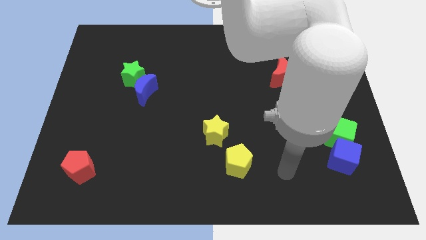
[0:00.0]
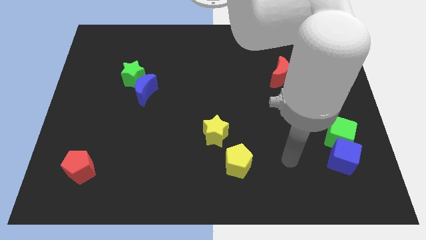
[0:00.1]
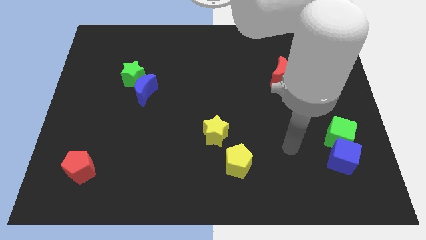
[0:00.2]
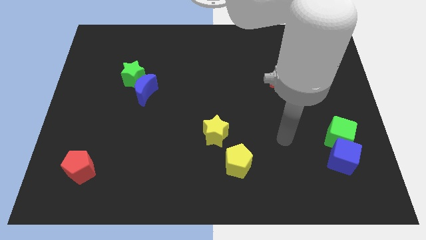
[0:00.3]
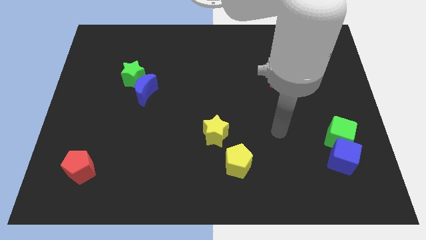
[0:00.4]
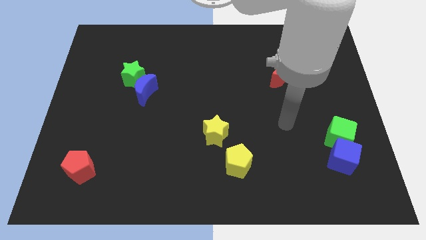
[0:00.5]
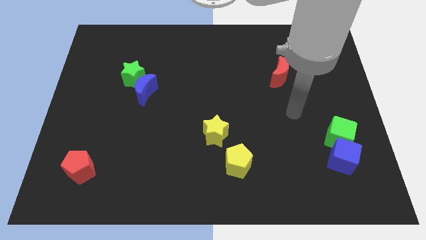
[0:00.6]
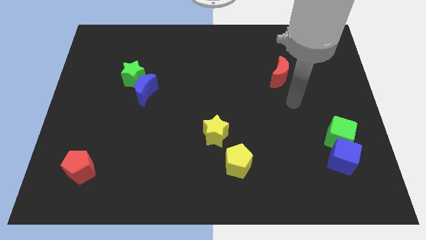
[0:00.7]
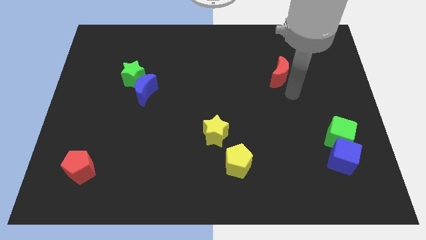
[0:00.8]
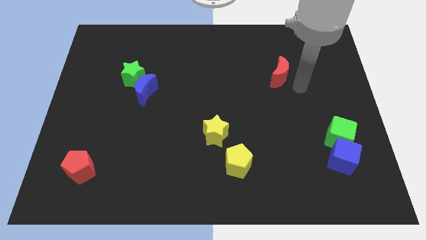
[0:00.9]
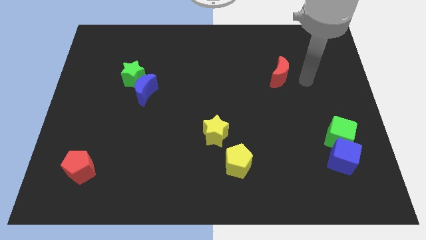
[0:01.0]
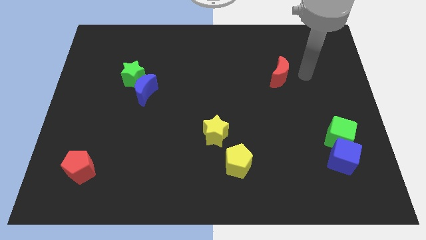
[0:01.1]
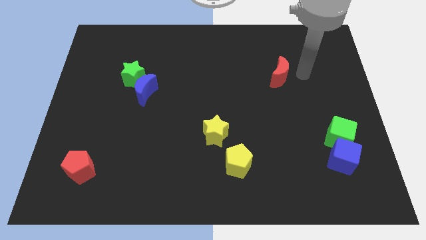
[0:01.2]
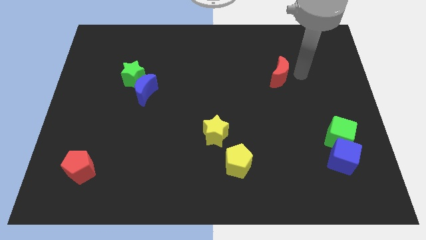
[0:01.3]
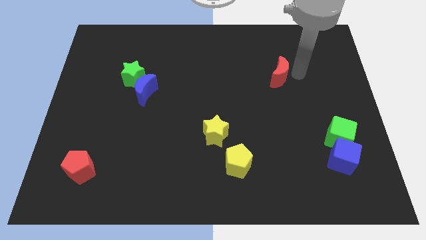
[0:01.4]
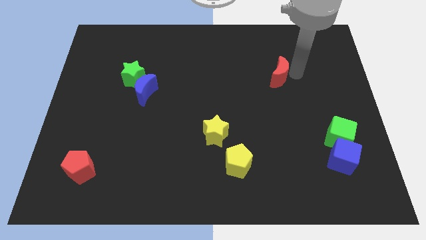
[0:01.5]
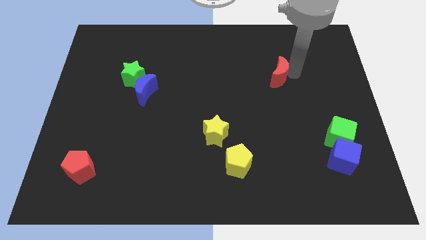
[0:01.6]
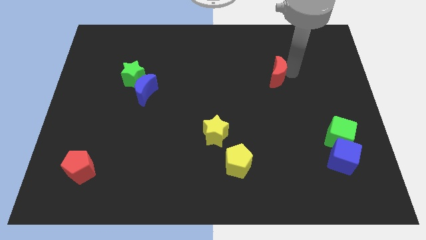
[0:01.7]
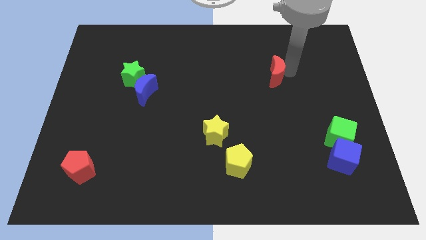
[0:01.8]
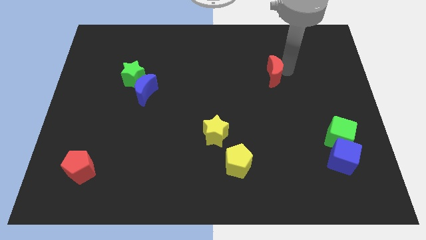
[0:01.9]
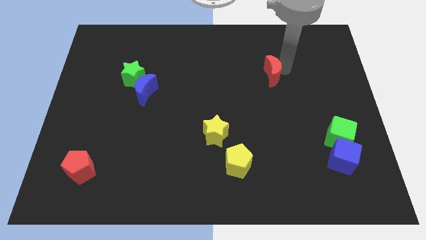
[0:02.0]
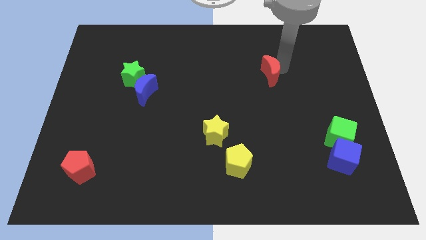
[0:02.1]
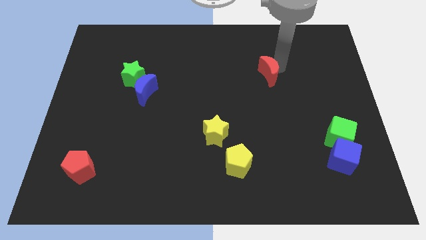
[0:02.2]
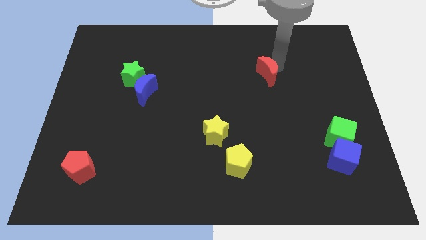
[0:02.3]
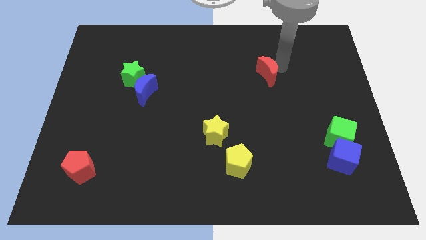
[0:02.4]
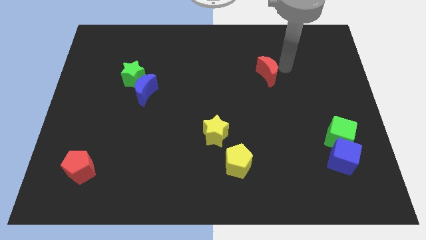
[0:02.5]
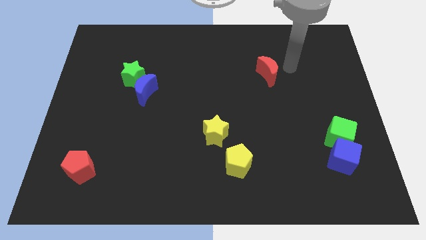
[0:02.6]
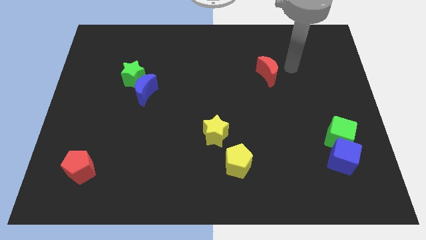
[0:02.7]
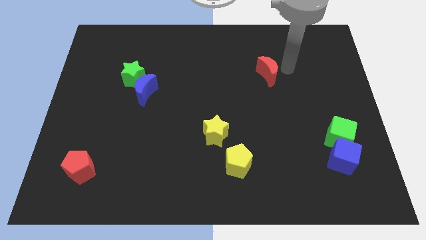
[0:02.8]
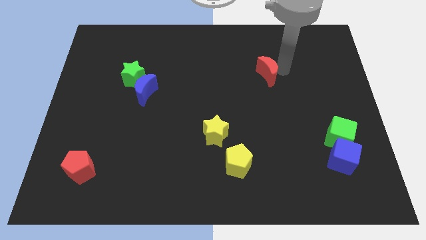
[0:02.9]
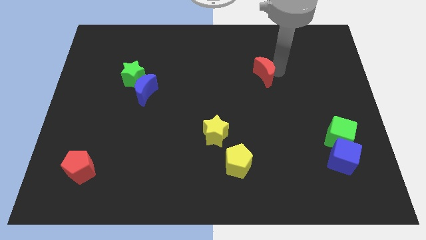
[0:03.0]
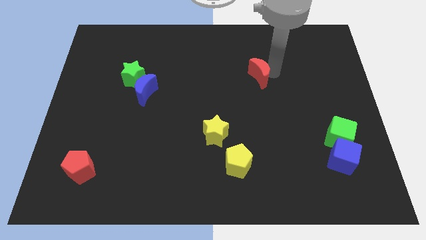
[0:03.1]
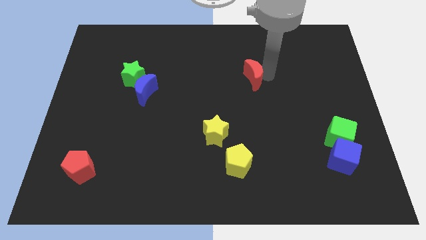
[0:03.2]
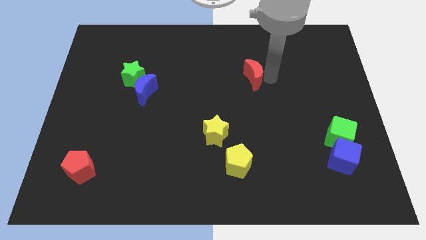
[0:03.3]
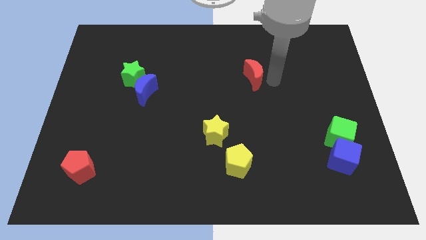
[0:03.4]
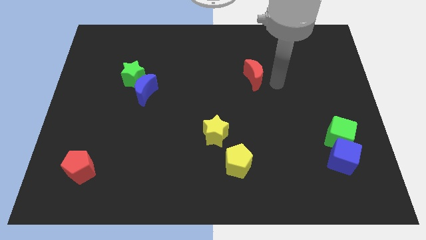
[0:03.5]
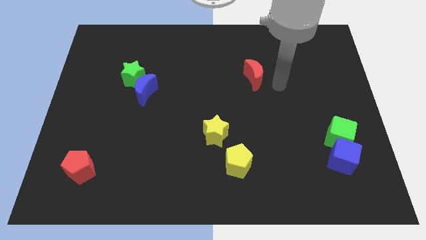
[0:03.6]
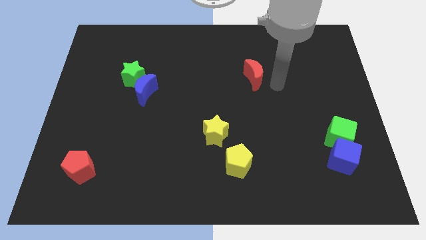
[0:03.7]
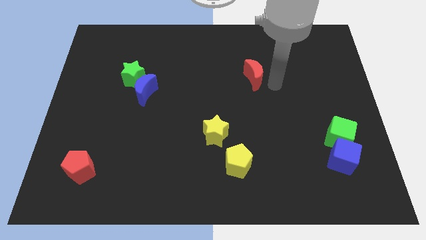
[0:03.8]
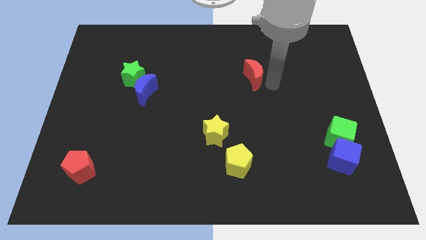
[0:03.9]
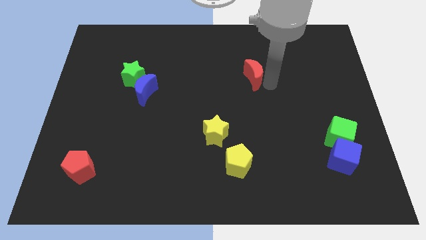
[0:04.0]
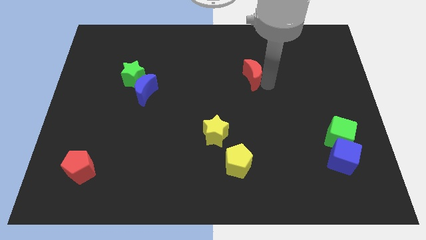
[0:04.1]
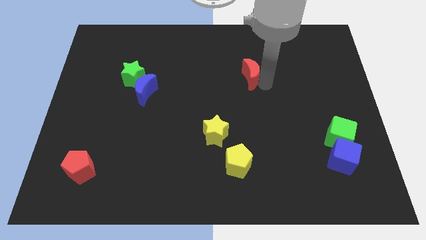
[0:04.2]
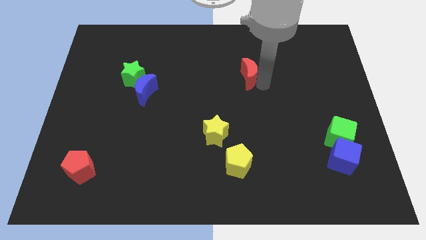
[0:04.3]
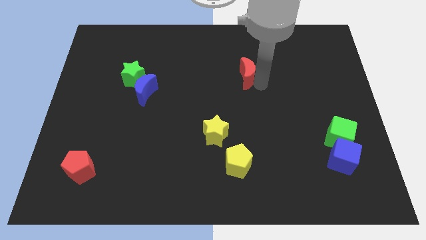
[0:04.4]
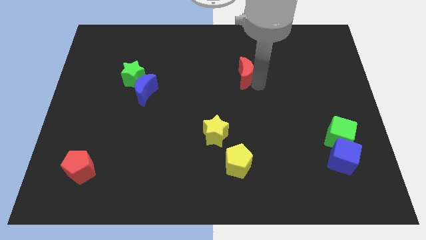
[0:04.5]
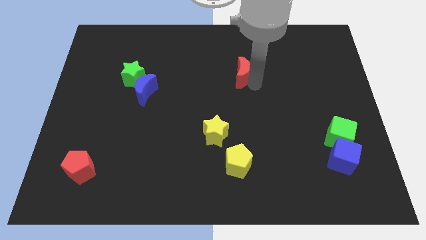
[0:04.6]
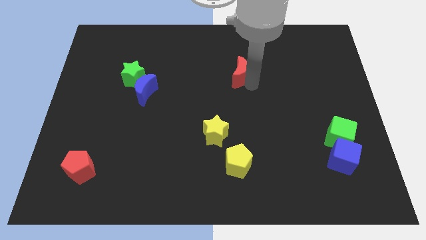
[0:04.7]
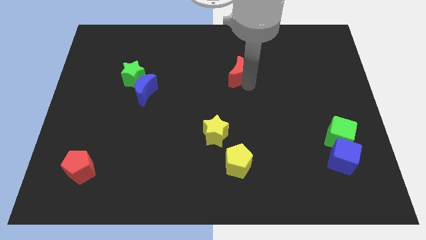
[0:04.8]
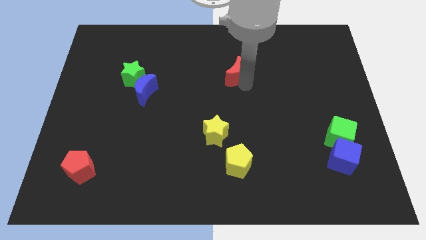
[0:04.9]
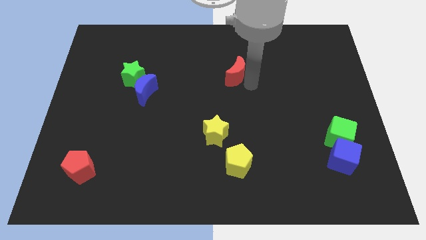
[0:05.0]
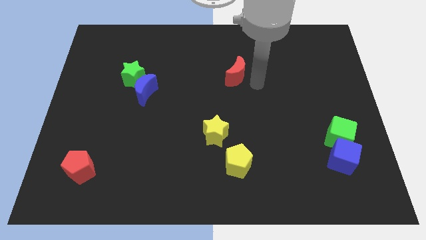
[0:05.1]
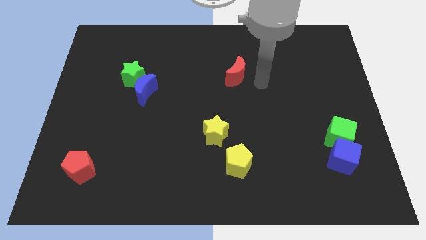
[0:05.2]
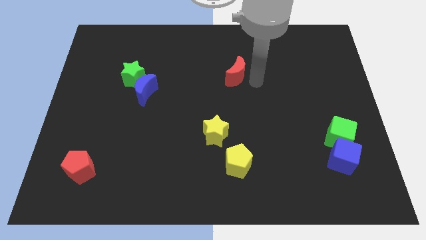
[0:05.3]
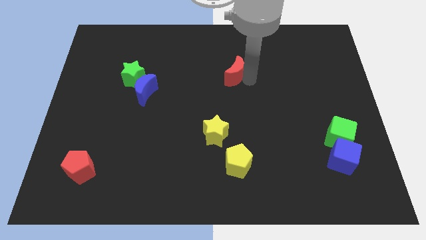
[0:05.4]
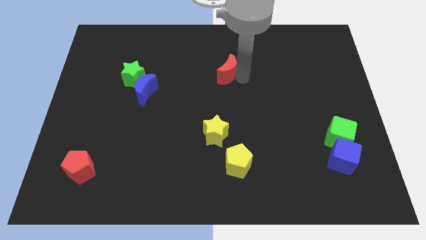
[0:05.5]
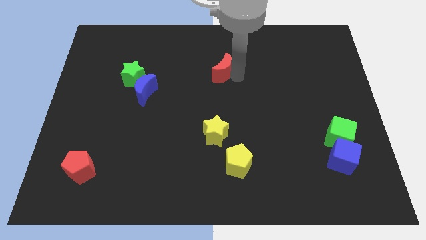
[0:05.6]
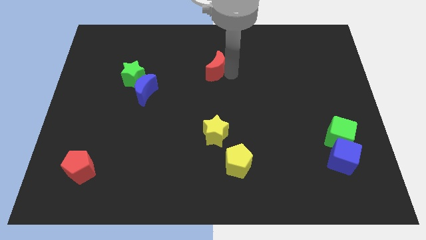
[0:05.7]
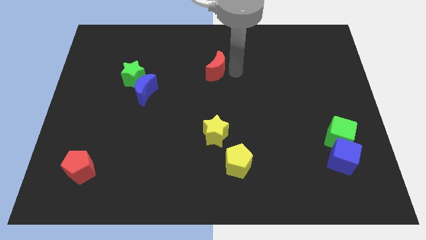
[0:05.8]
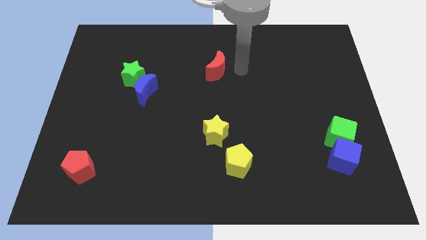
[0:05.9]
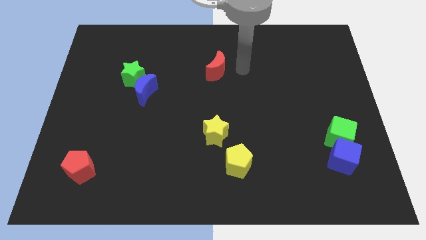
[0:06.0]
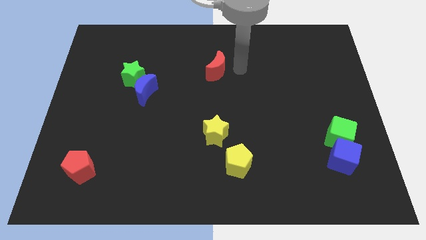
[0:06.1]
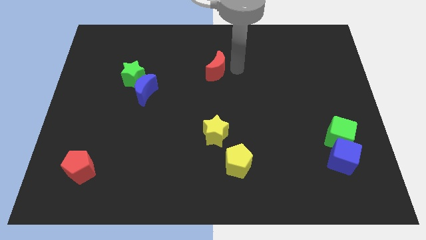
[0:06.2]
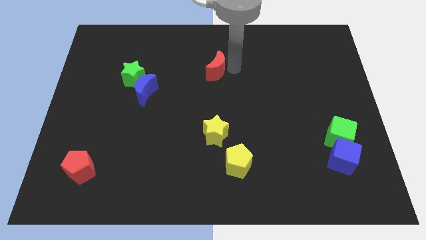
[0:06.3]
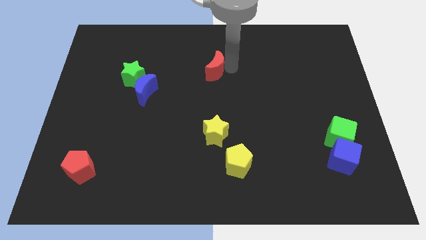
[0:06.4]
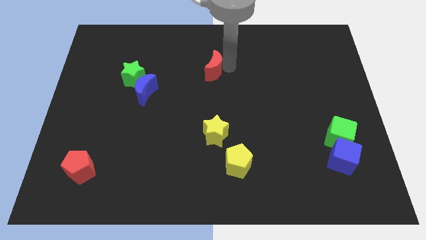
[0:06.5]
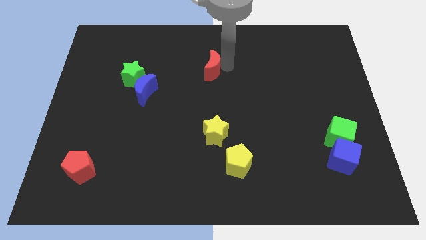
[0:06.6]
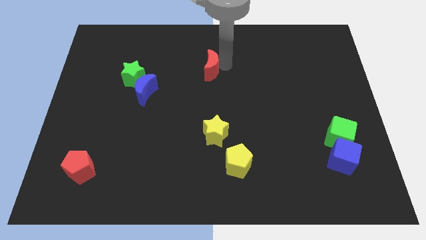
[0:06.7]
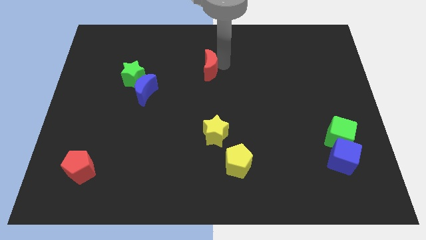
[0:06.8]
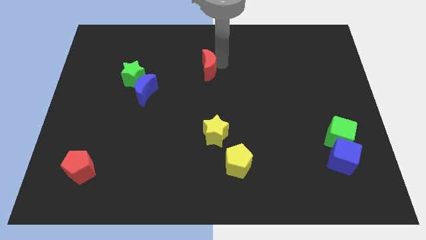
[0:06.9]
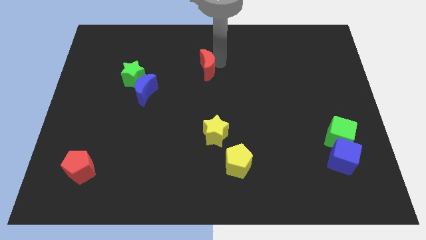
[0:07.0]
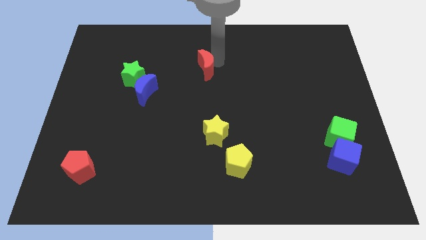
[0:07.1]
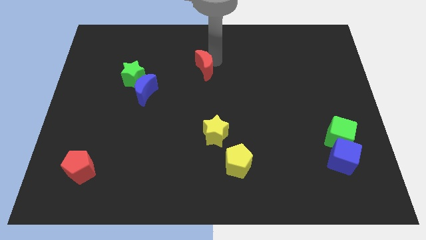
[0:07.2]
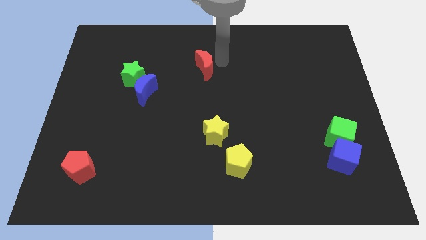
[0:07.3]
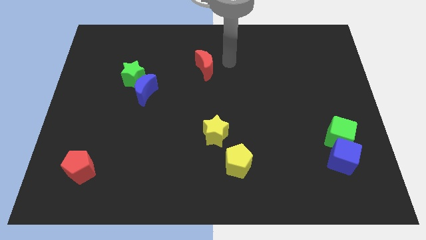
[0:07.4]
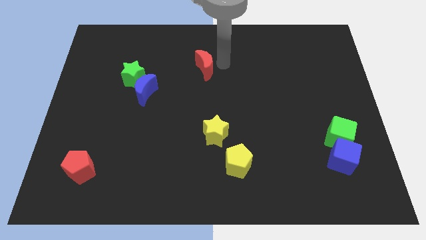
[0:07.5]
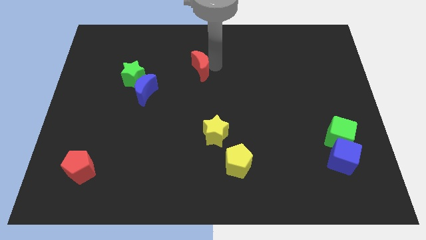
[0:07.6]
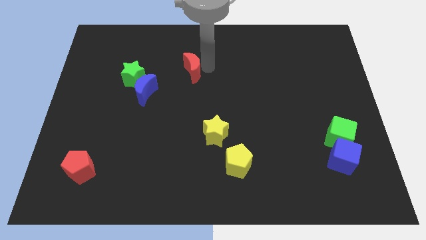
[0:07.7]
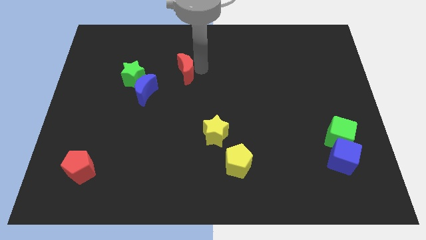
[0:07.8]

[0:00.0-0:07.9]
push the red moon diagonally up and to the right of the blue moon
